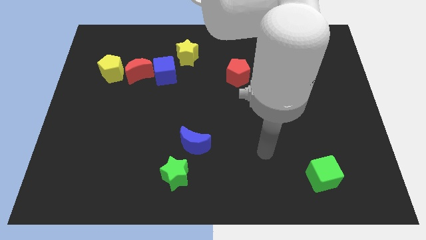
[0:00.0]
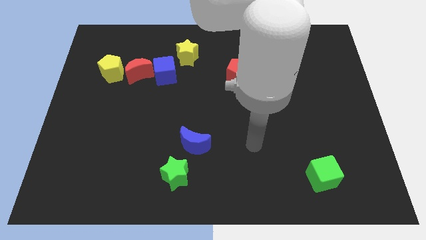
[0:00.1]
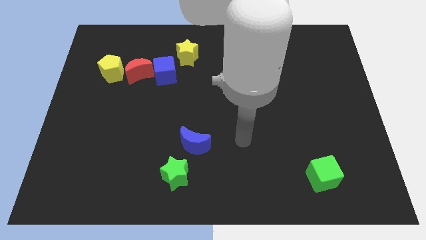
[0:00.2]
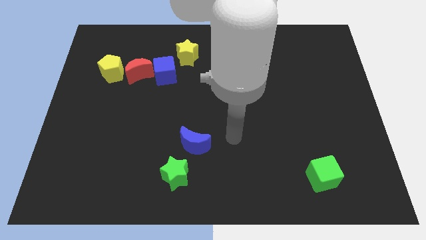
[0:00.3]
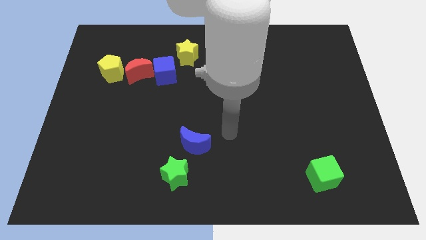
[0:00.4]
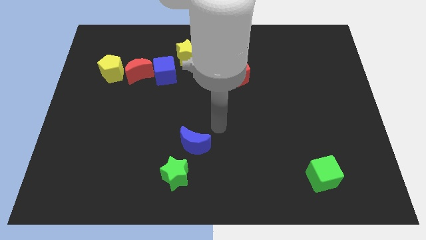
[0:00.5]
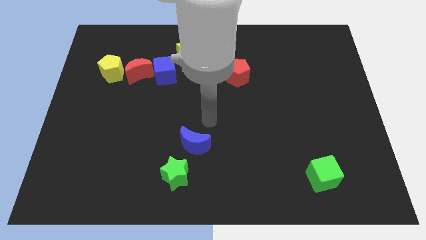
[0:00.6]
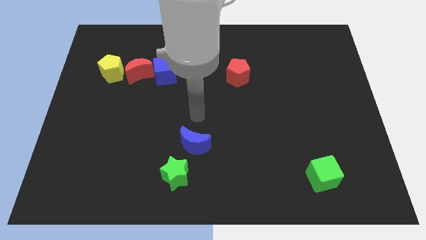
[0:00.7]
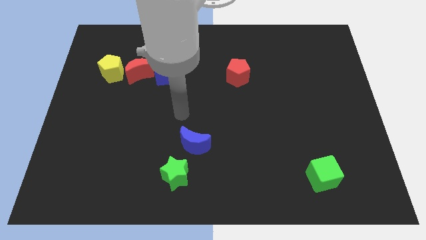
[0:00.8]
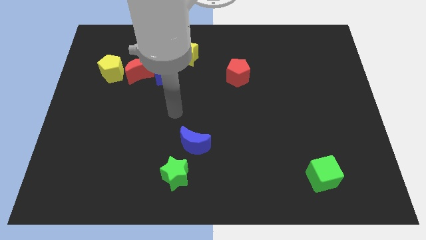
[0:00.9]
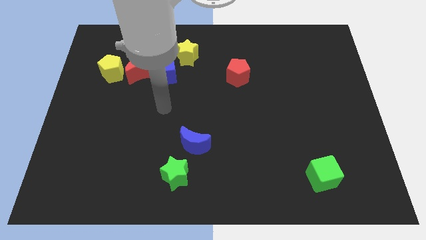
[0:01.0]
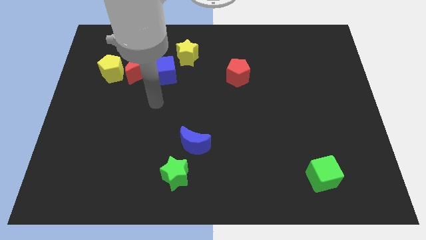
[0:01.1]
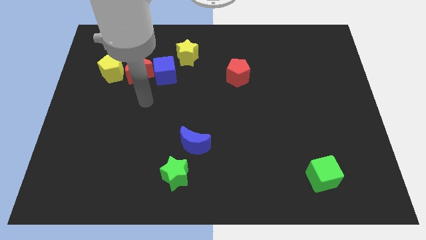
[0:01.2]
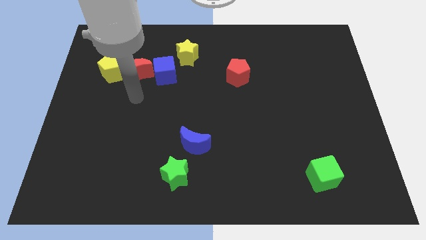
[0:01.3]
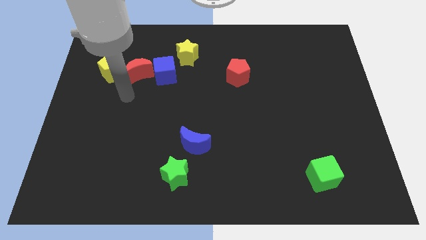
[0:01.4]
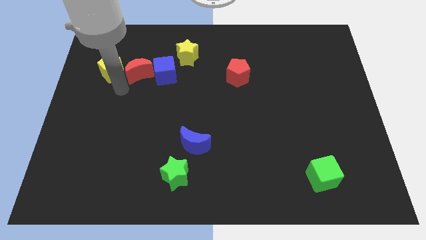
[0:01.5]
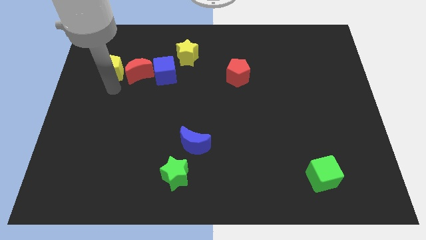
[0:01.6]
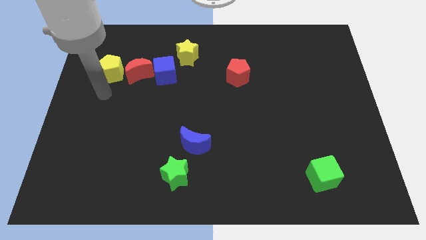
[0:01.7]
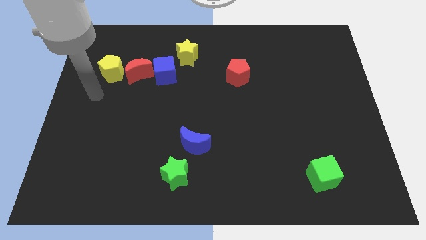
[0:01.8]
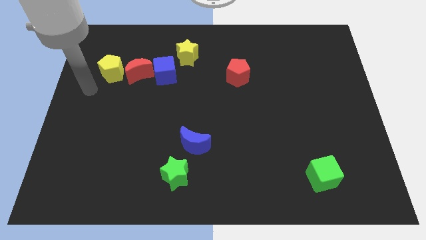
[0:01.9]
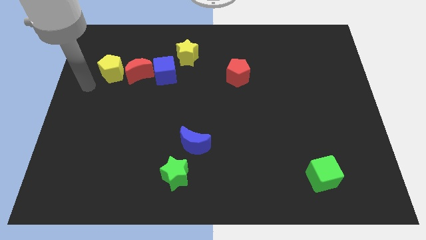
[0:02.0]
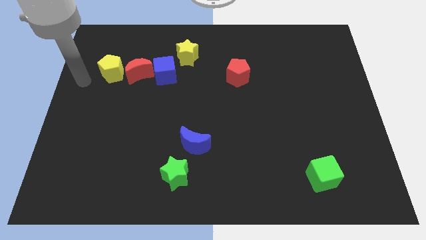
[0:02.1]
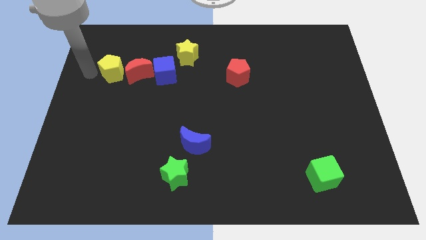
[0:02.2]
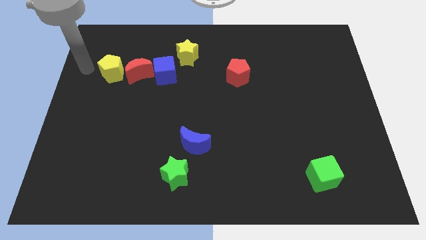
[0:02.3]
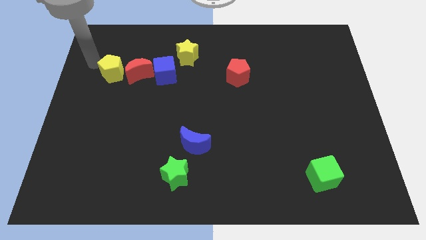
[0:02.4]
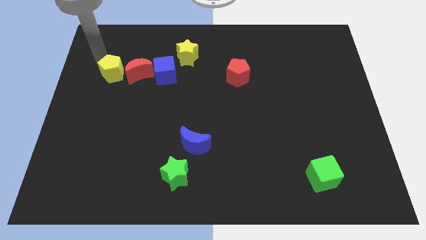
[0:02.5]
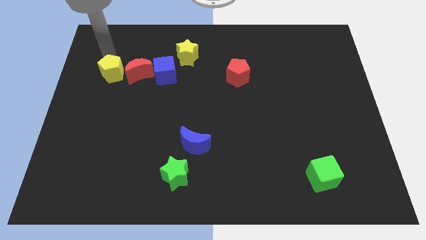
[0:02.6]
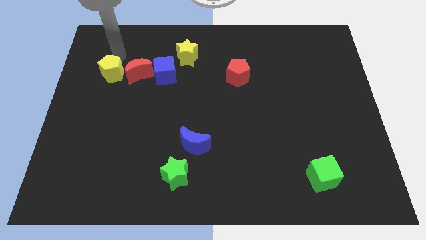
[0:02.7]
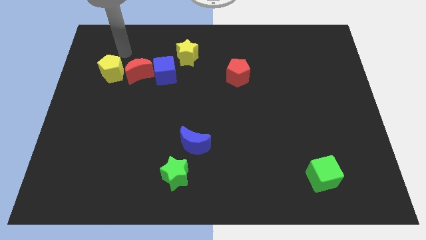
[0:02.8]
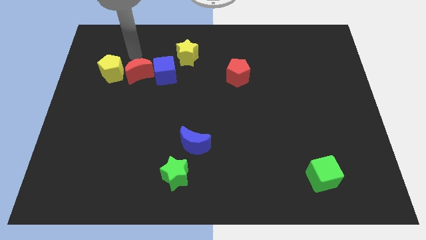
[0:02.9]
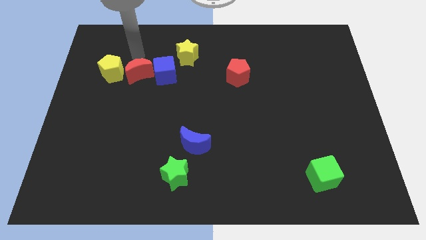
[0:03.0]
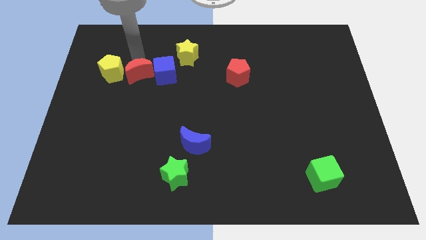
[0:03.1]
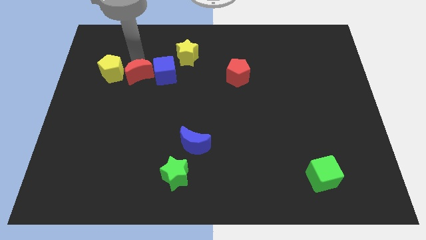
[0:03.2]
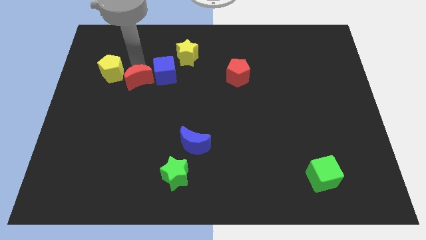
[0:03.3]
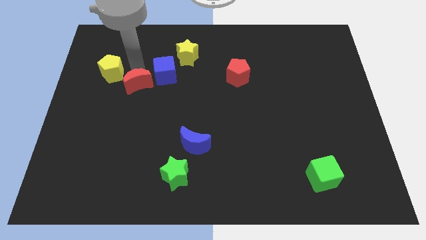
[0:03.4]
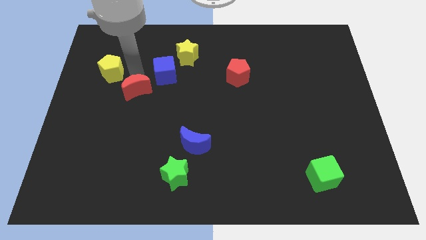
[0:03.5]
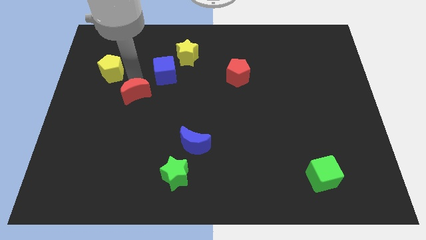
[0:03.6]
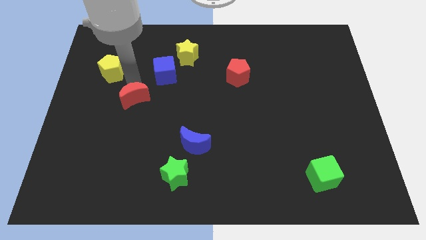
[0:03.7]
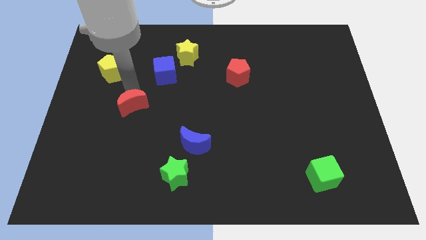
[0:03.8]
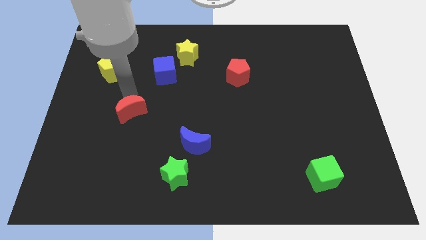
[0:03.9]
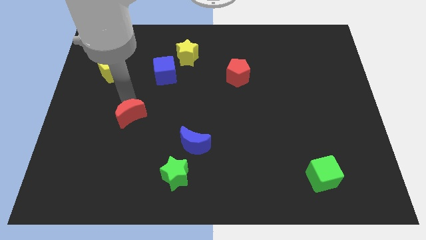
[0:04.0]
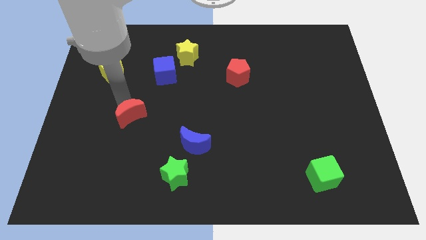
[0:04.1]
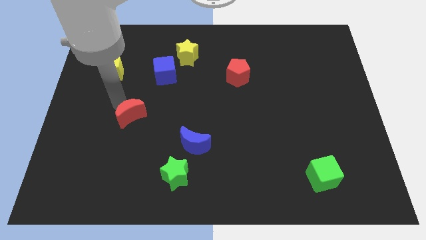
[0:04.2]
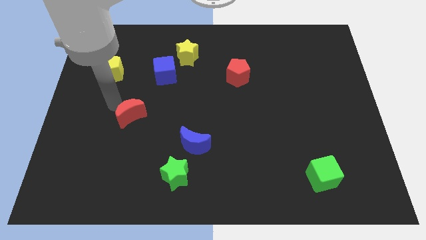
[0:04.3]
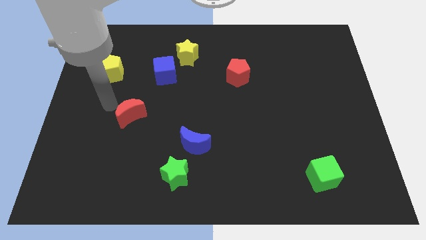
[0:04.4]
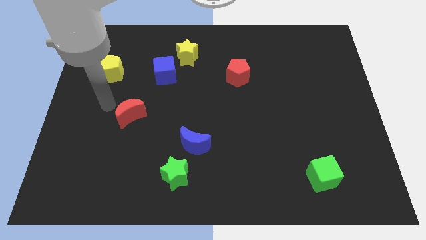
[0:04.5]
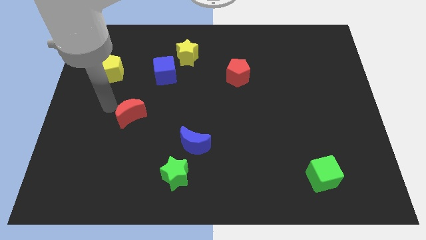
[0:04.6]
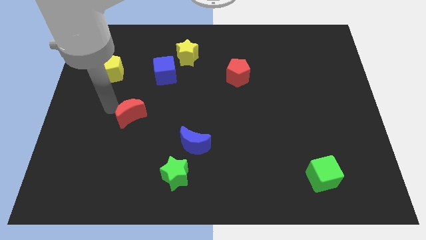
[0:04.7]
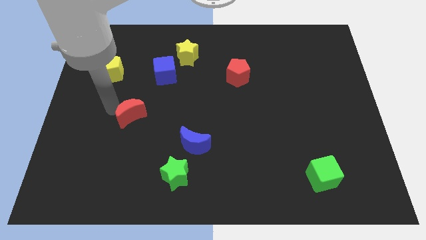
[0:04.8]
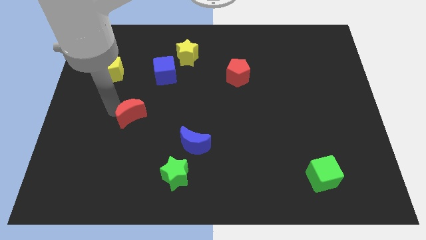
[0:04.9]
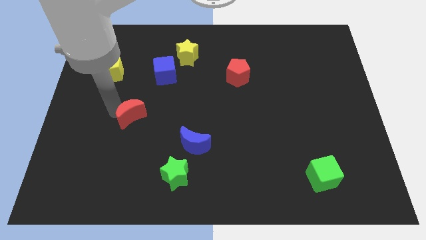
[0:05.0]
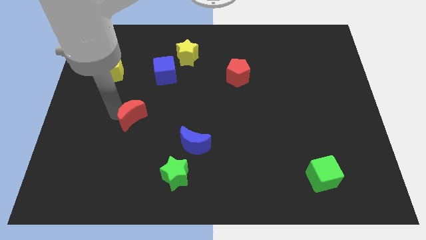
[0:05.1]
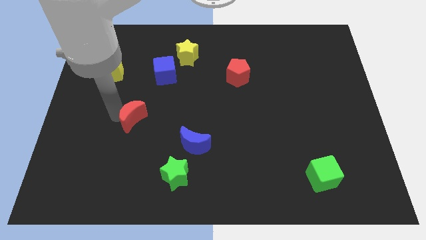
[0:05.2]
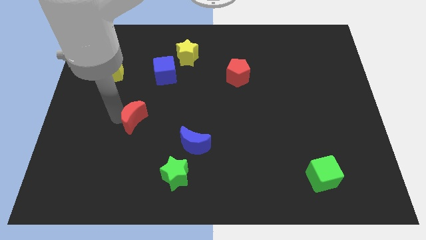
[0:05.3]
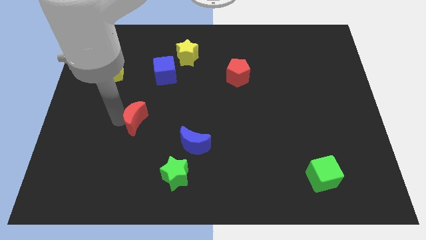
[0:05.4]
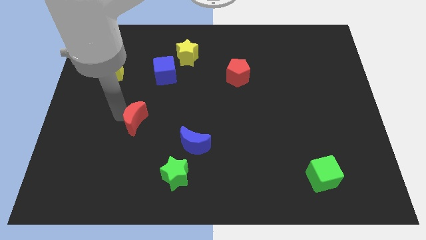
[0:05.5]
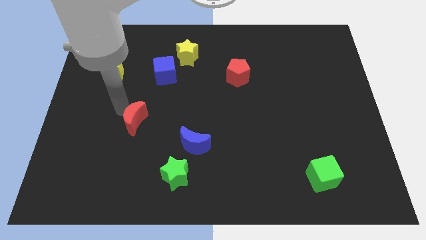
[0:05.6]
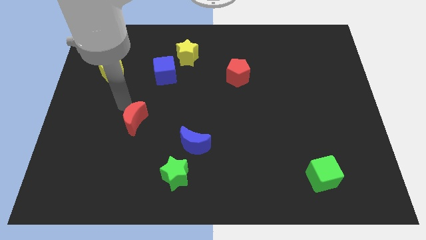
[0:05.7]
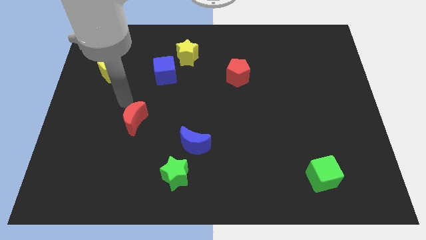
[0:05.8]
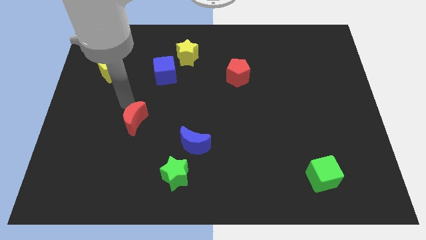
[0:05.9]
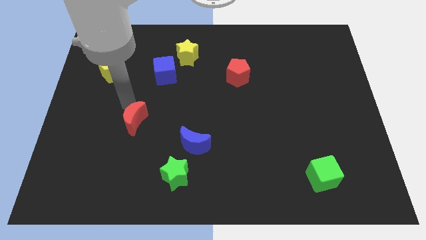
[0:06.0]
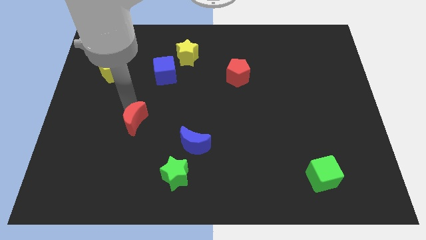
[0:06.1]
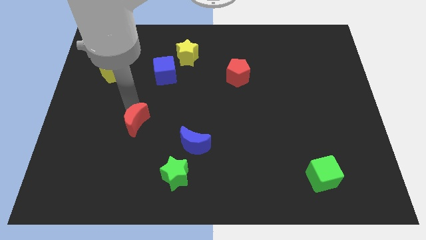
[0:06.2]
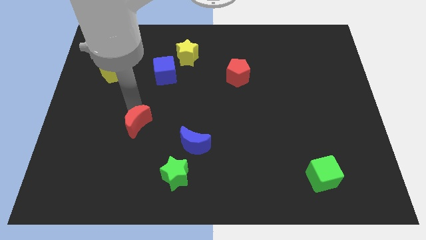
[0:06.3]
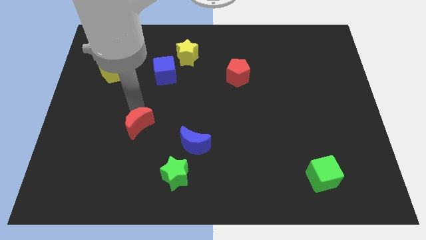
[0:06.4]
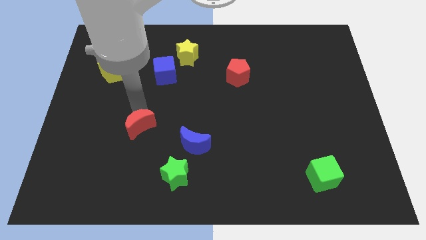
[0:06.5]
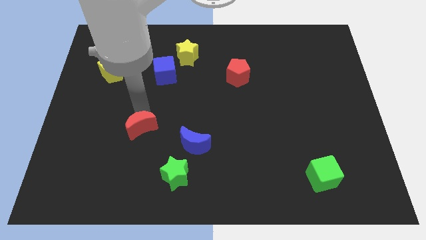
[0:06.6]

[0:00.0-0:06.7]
move the red moon left of the blue moon

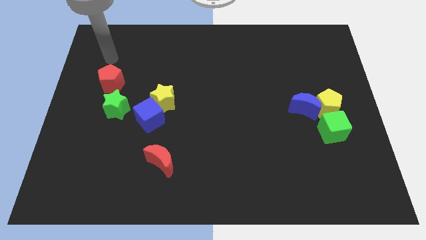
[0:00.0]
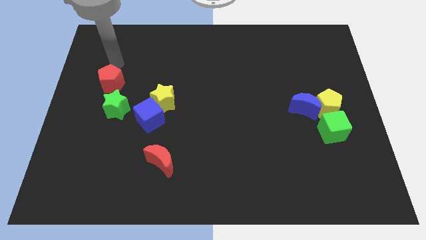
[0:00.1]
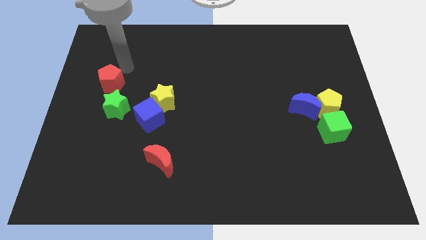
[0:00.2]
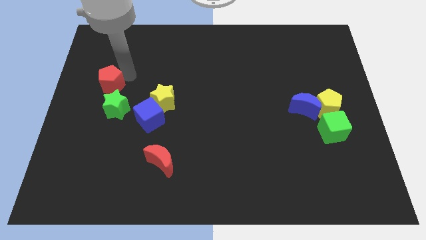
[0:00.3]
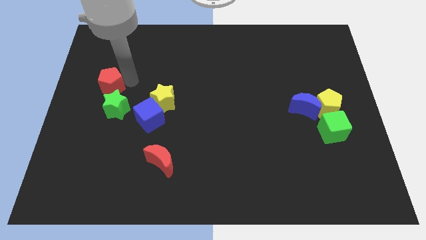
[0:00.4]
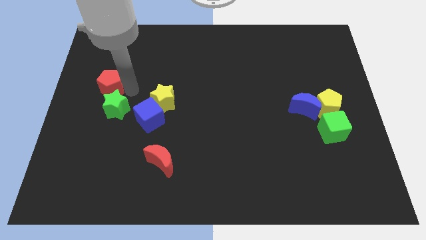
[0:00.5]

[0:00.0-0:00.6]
move the yellow star to the right side of the red pentagon
